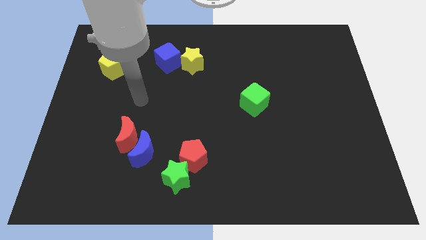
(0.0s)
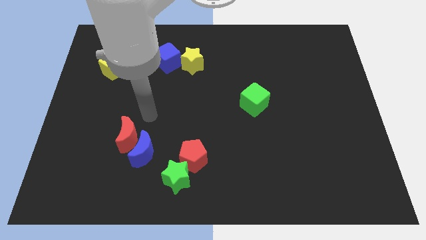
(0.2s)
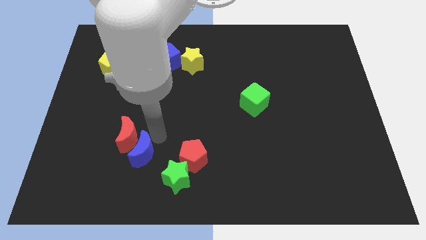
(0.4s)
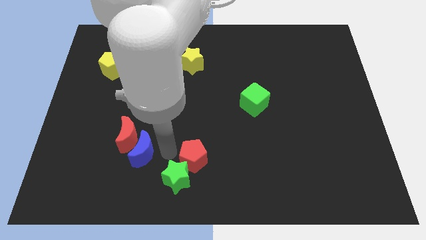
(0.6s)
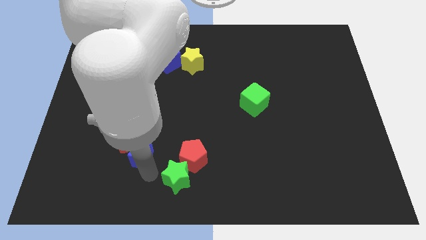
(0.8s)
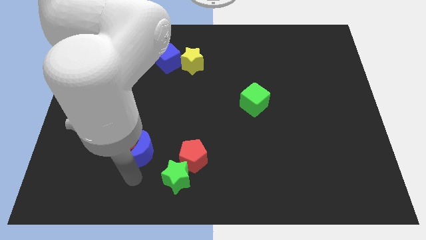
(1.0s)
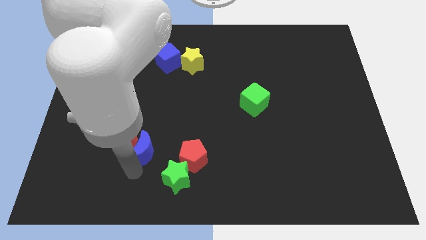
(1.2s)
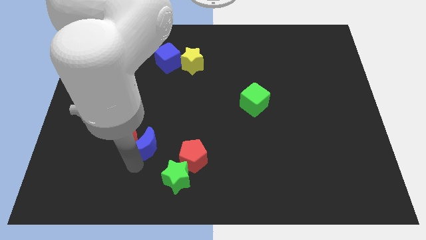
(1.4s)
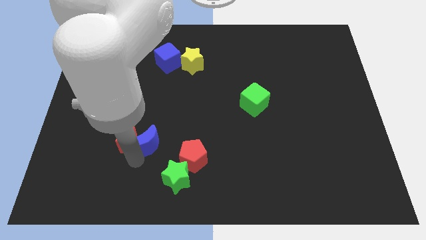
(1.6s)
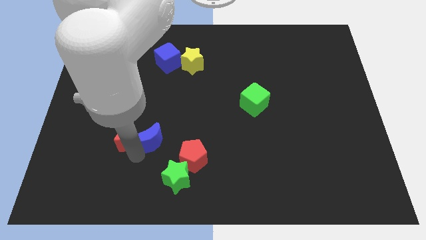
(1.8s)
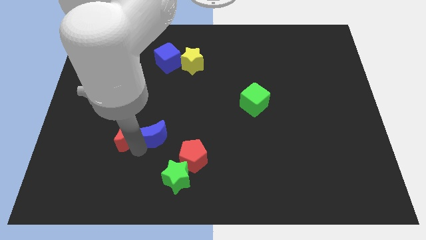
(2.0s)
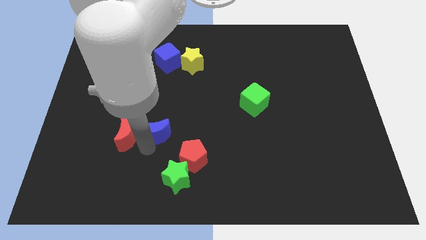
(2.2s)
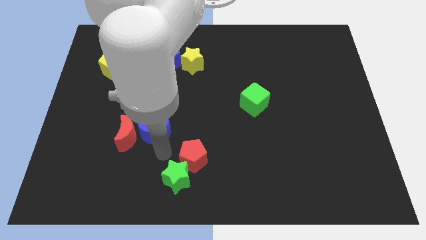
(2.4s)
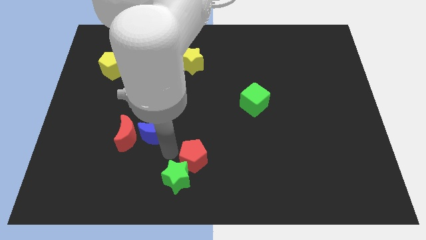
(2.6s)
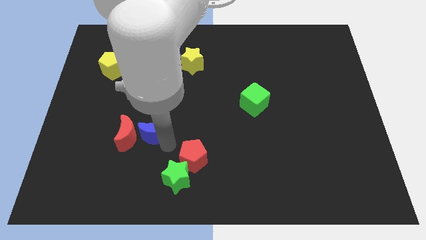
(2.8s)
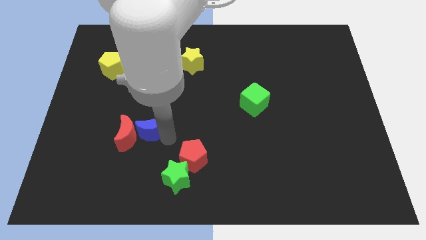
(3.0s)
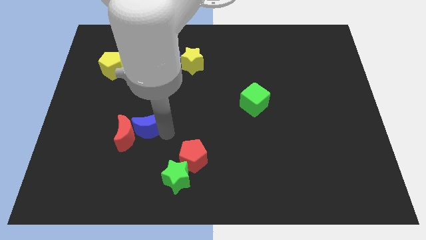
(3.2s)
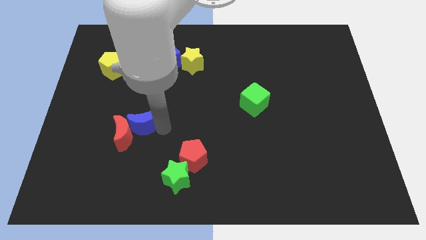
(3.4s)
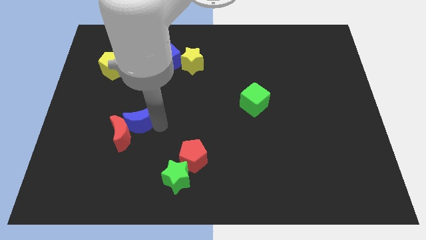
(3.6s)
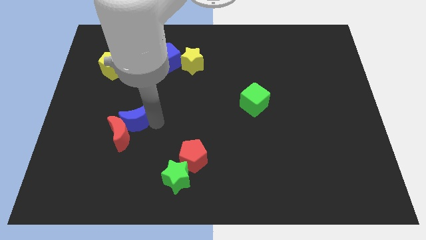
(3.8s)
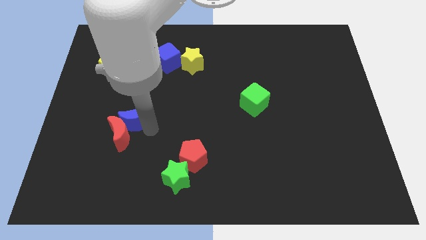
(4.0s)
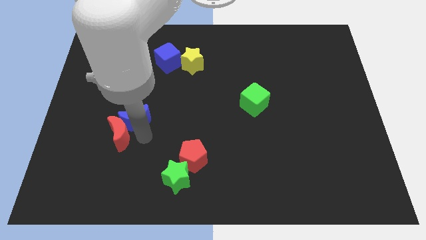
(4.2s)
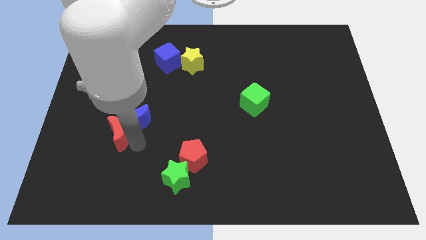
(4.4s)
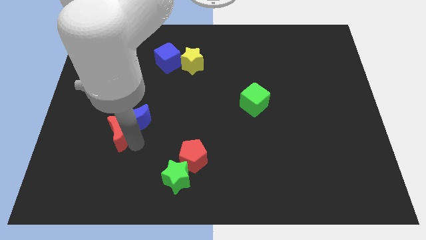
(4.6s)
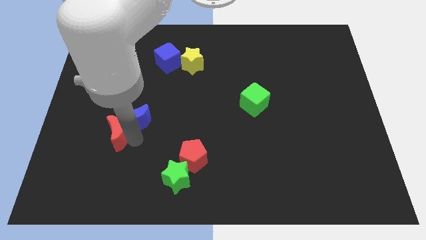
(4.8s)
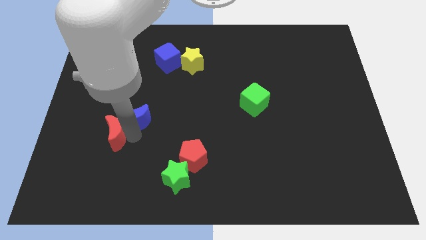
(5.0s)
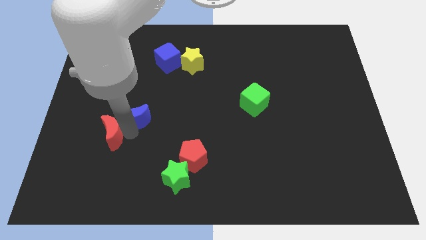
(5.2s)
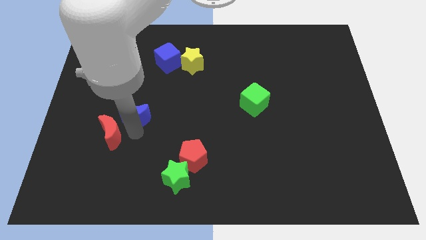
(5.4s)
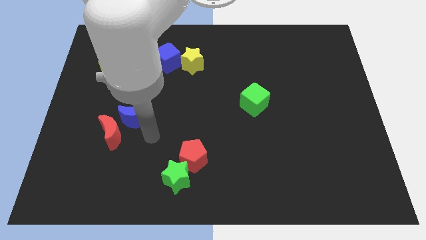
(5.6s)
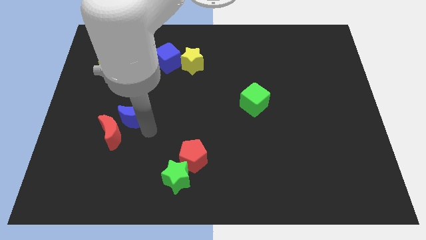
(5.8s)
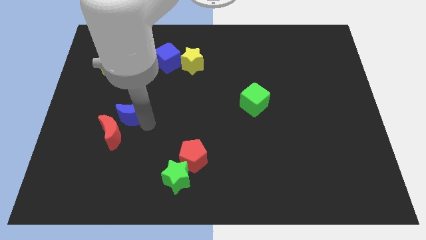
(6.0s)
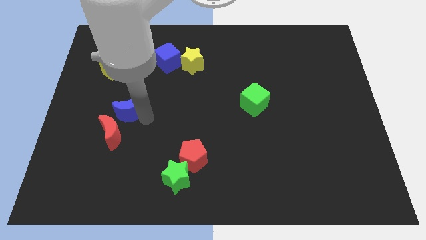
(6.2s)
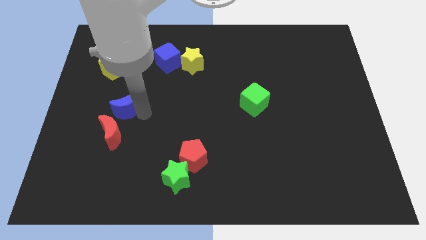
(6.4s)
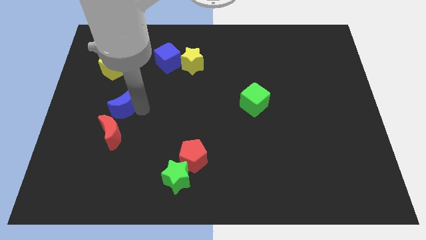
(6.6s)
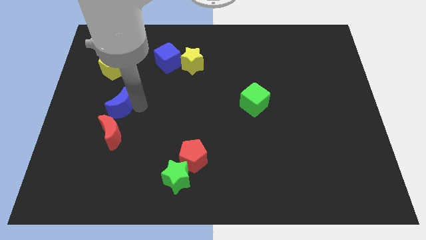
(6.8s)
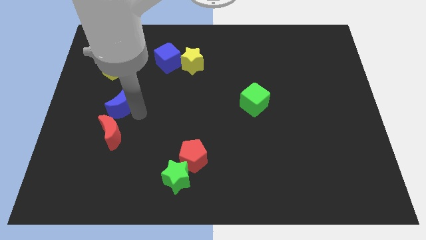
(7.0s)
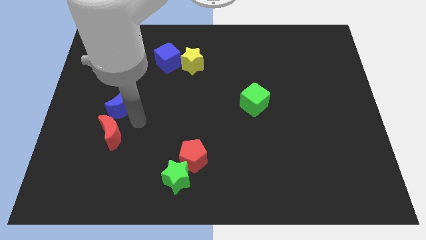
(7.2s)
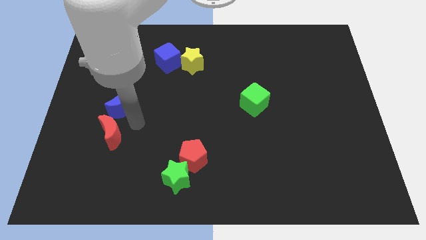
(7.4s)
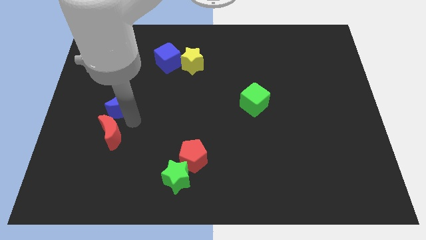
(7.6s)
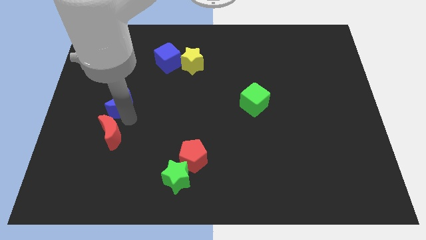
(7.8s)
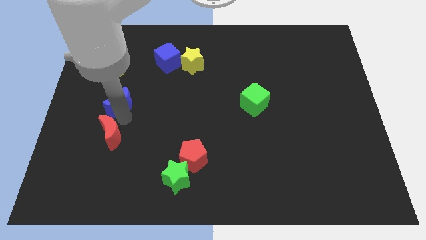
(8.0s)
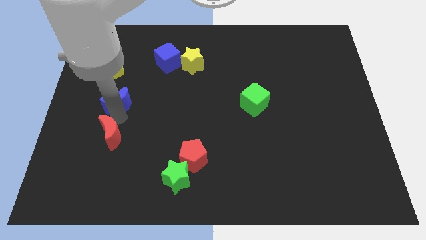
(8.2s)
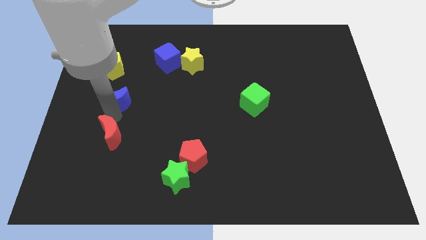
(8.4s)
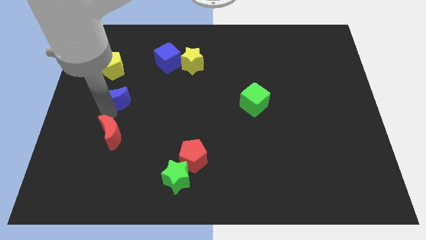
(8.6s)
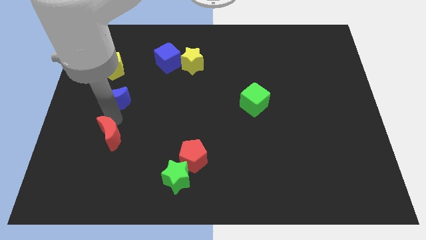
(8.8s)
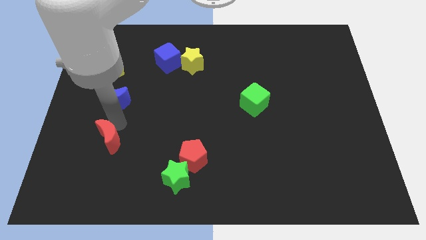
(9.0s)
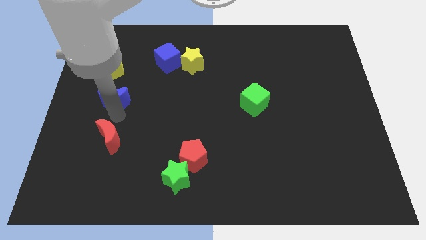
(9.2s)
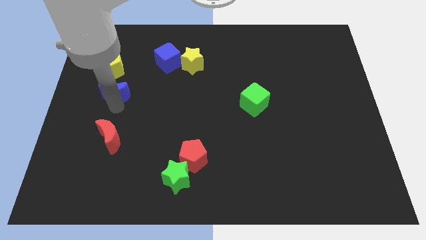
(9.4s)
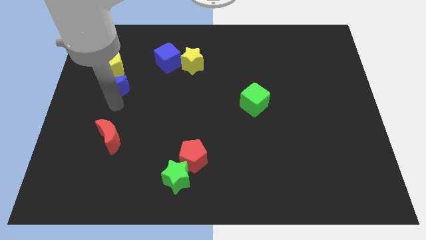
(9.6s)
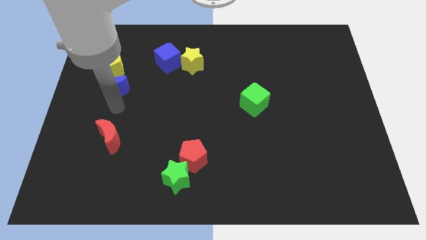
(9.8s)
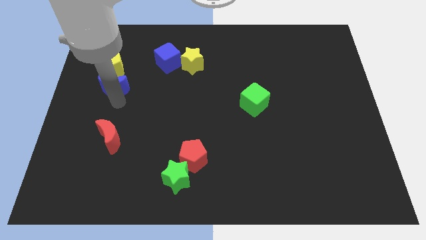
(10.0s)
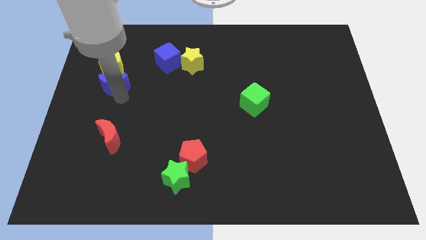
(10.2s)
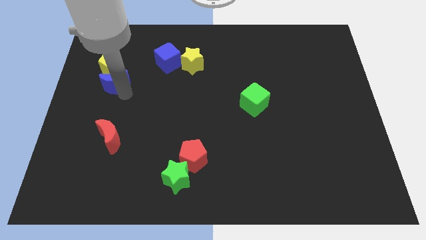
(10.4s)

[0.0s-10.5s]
move the blue moon to the yellow pentagon

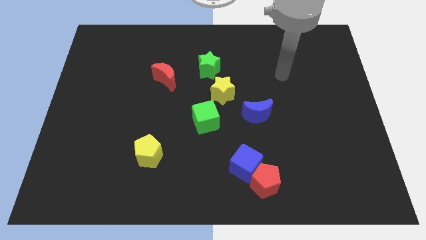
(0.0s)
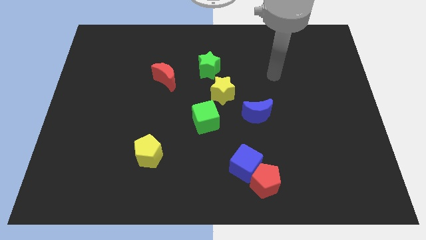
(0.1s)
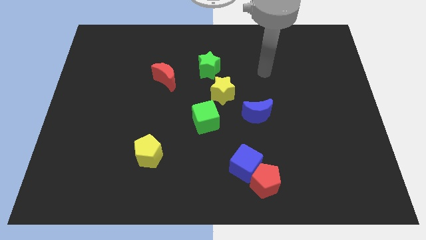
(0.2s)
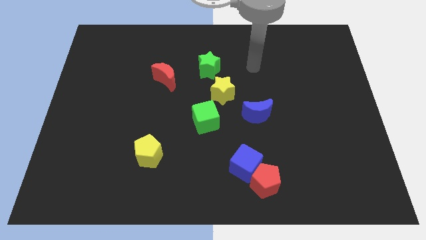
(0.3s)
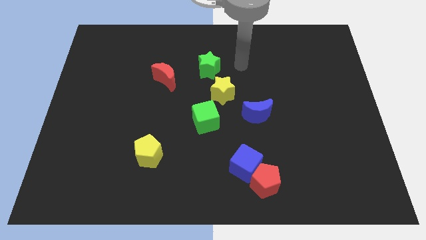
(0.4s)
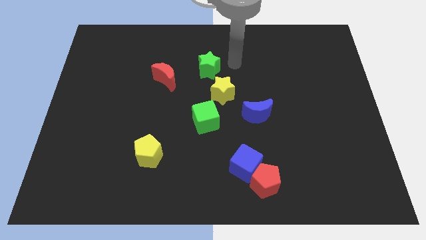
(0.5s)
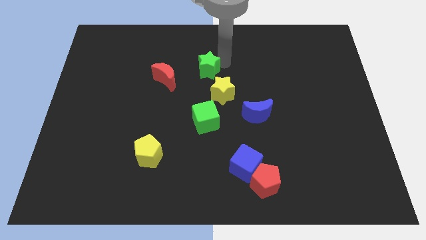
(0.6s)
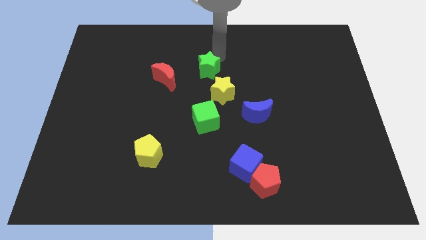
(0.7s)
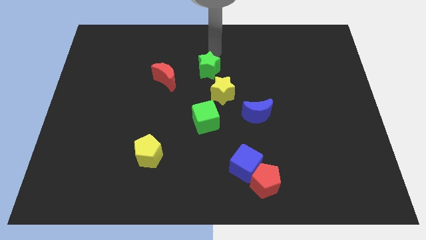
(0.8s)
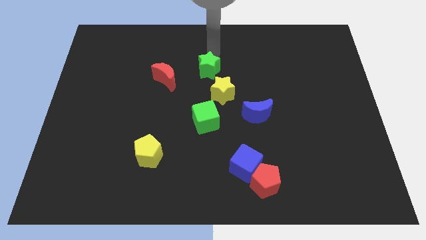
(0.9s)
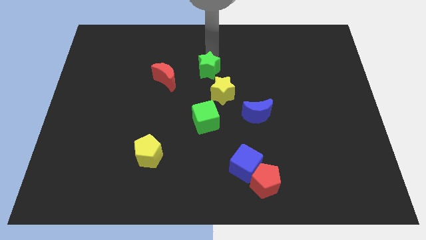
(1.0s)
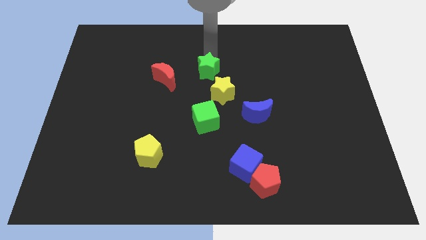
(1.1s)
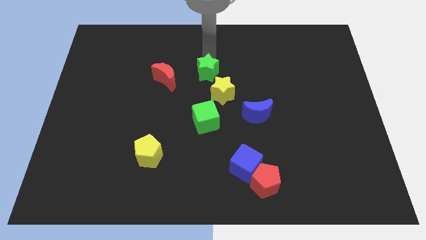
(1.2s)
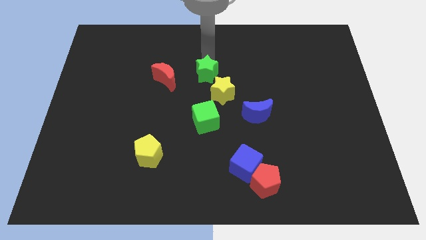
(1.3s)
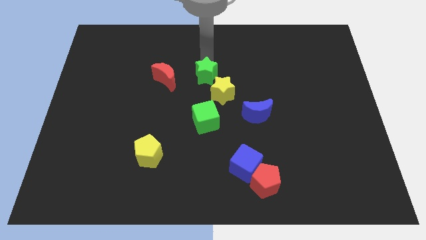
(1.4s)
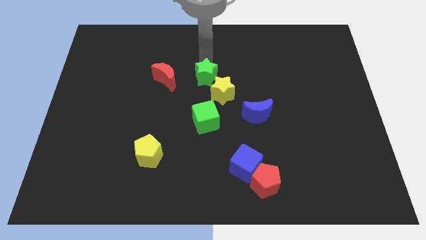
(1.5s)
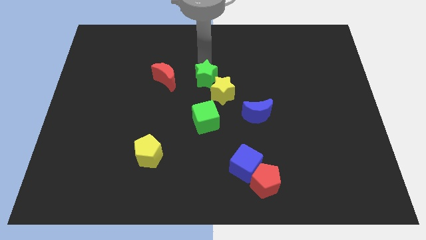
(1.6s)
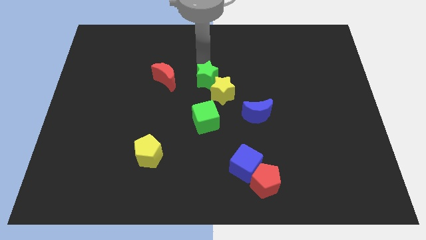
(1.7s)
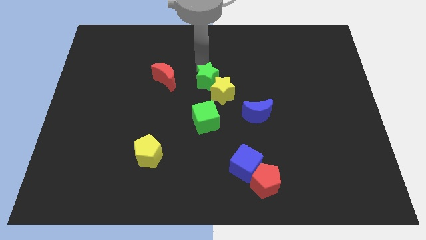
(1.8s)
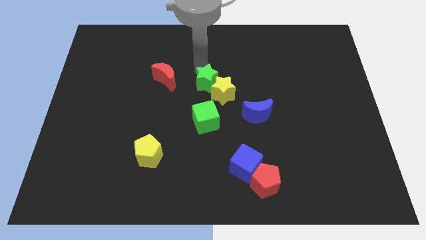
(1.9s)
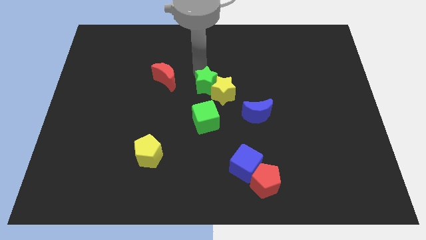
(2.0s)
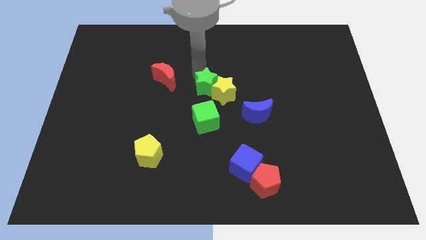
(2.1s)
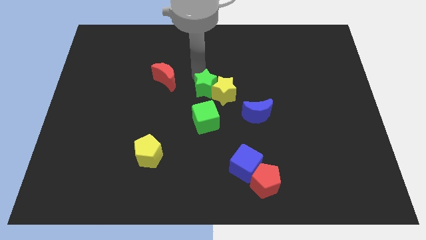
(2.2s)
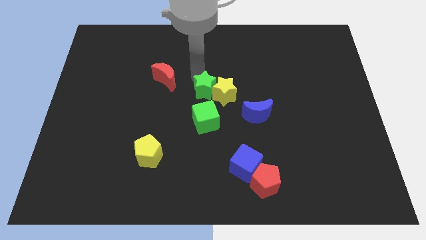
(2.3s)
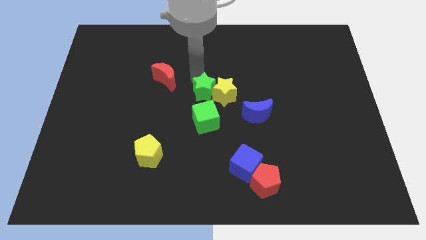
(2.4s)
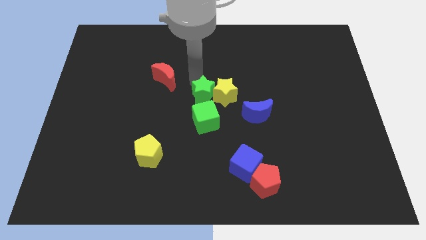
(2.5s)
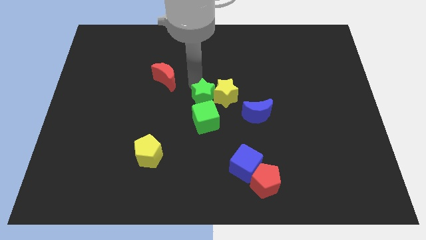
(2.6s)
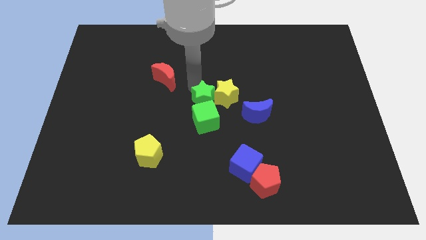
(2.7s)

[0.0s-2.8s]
slide the green star towards the green cube
